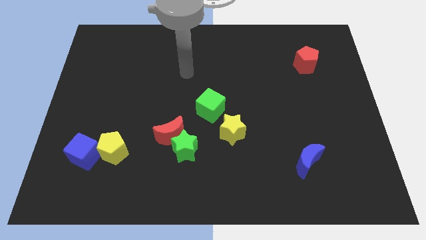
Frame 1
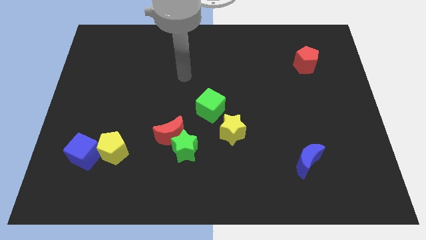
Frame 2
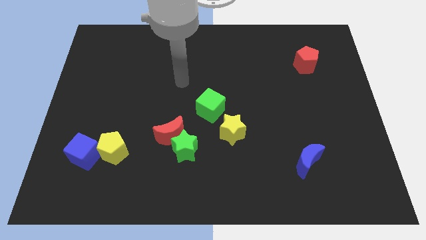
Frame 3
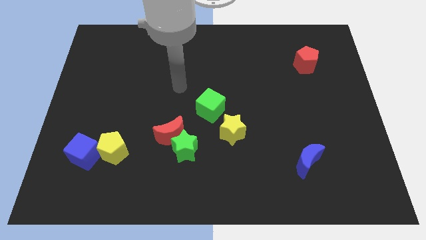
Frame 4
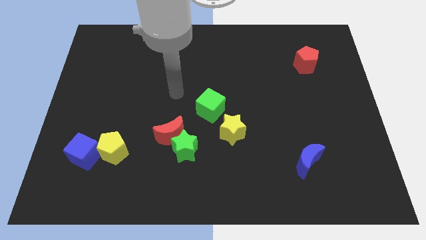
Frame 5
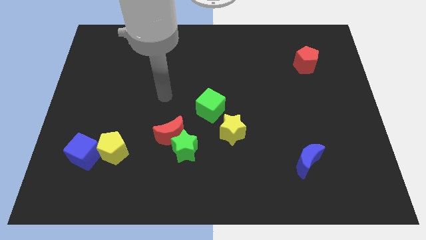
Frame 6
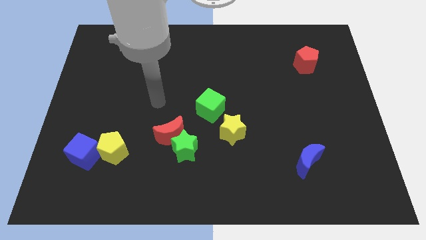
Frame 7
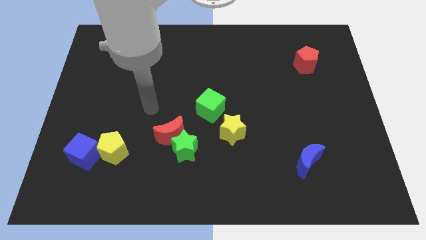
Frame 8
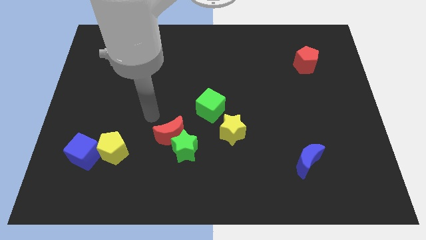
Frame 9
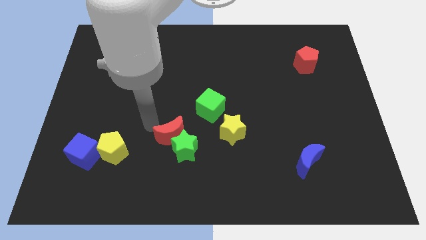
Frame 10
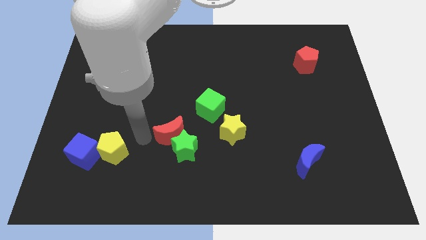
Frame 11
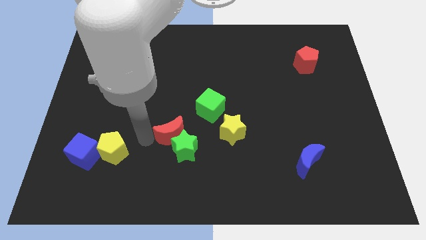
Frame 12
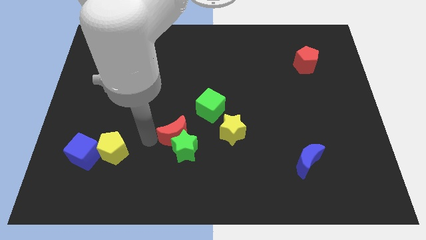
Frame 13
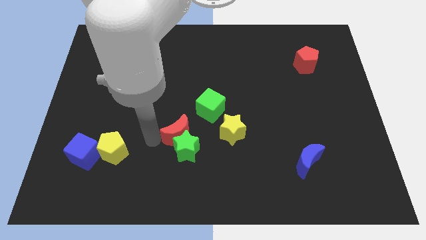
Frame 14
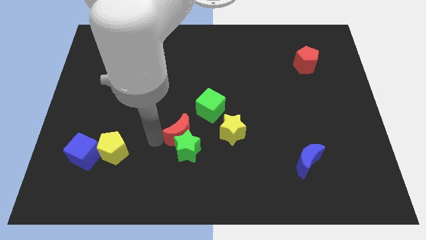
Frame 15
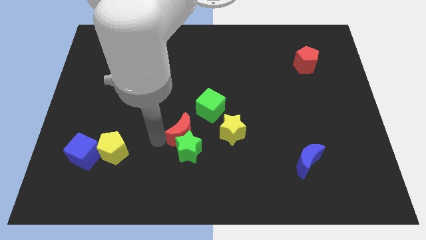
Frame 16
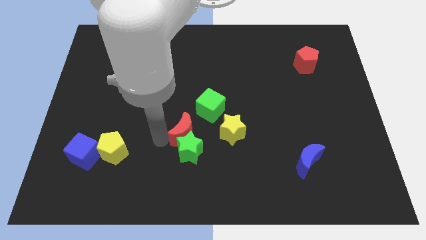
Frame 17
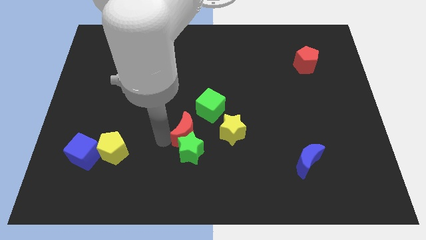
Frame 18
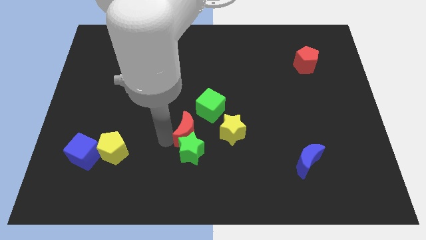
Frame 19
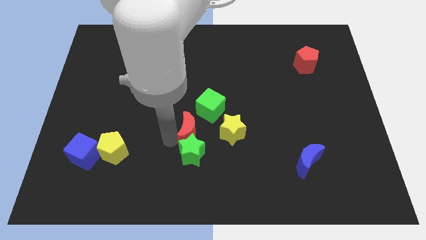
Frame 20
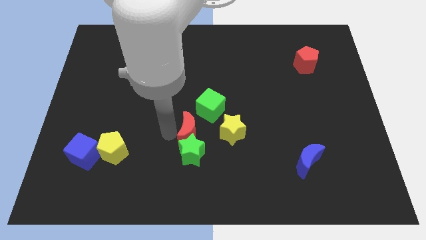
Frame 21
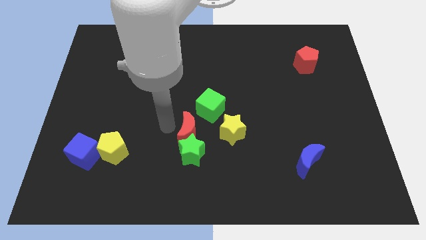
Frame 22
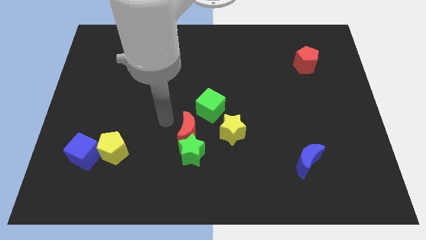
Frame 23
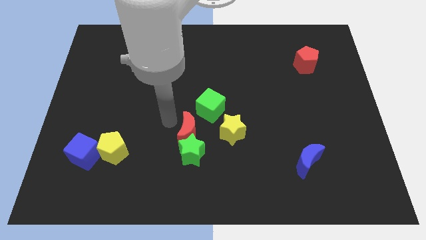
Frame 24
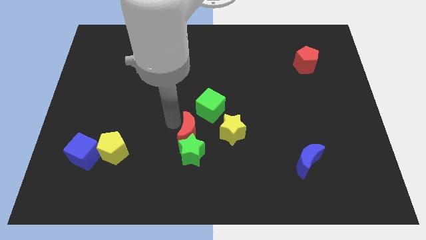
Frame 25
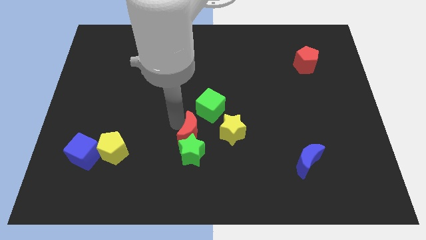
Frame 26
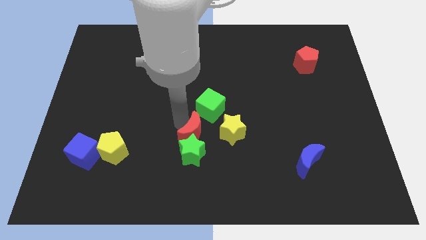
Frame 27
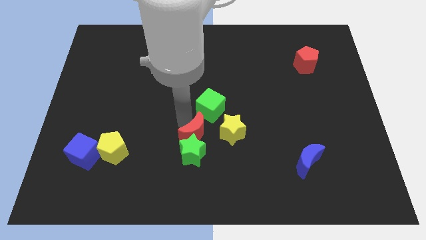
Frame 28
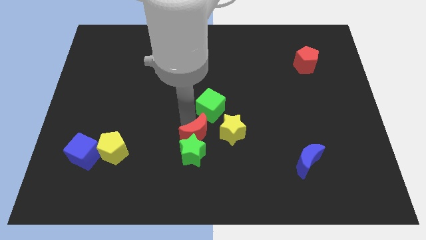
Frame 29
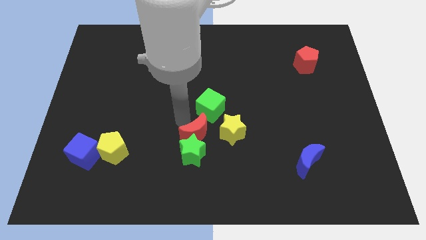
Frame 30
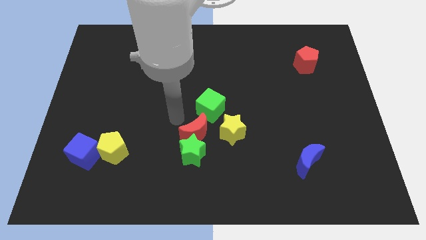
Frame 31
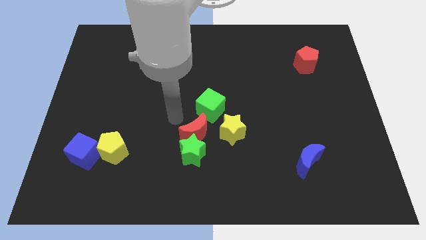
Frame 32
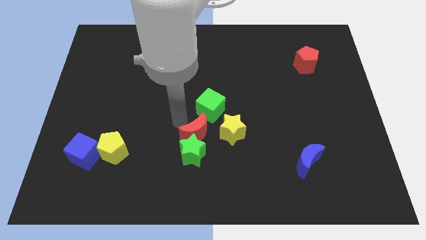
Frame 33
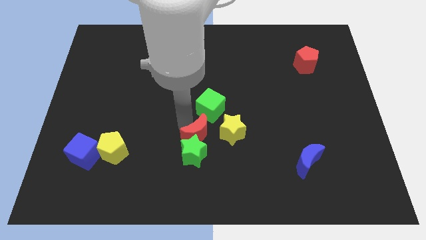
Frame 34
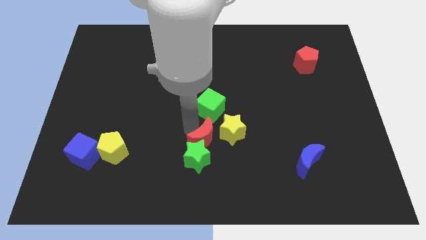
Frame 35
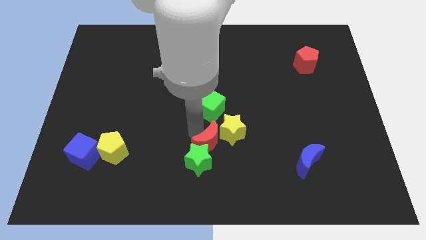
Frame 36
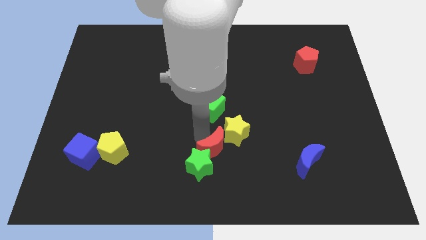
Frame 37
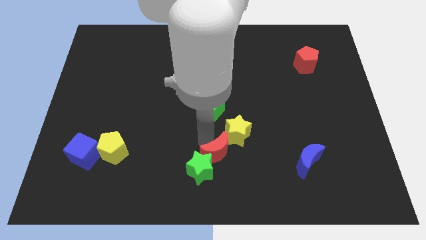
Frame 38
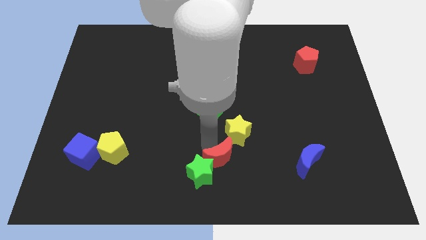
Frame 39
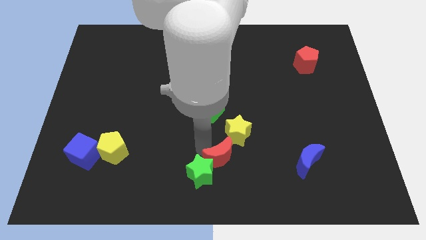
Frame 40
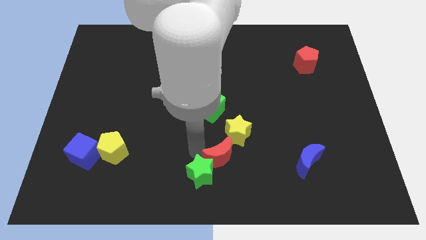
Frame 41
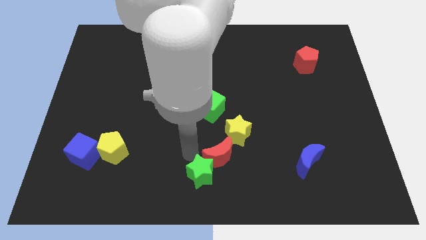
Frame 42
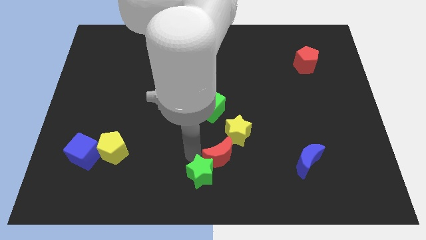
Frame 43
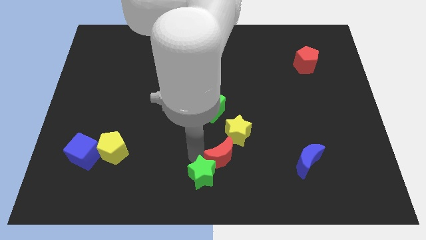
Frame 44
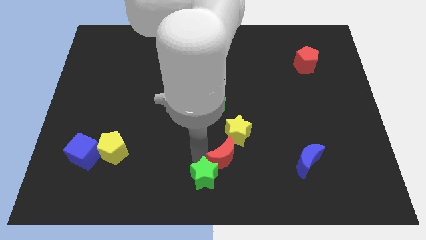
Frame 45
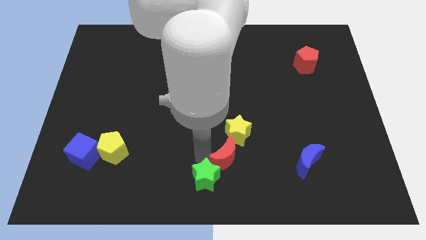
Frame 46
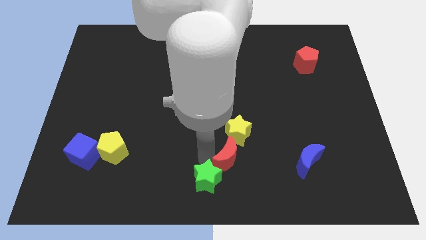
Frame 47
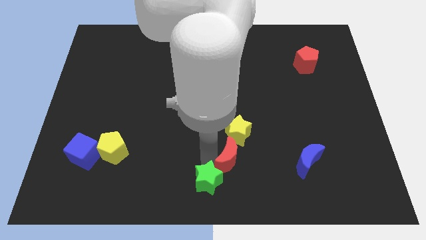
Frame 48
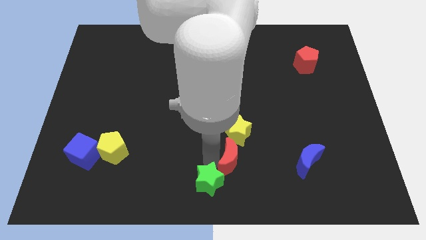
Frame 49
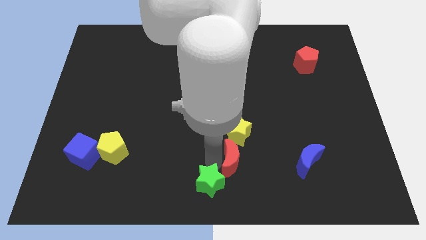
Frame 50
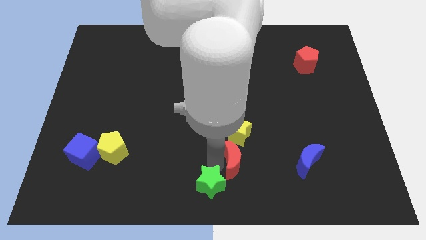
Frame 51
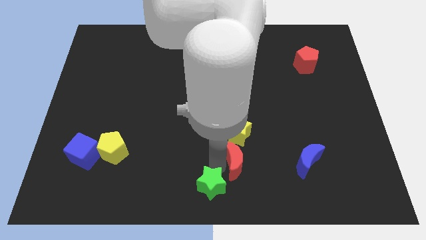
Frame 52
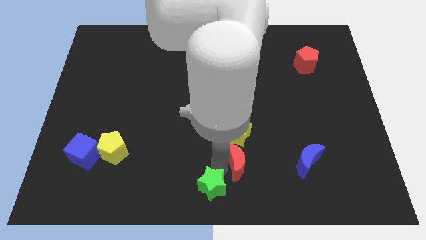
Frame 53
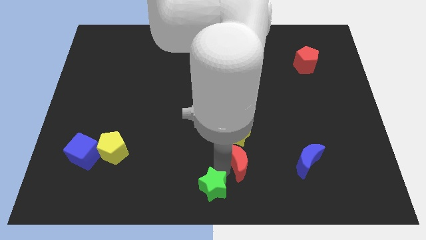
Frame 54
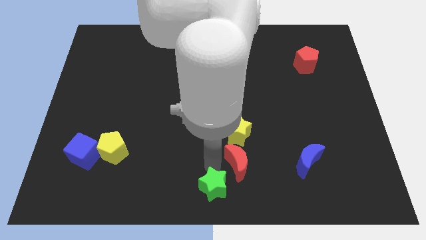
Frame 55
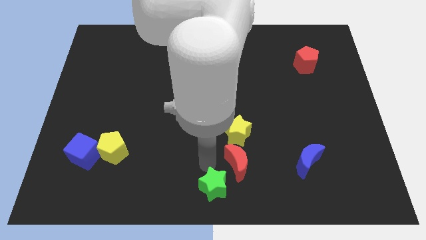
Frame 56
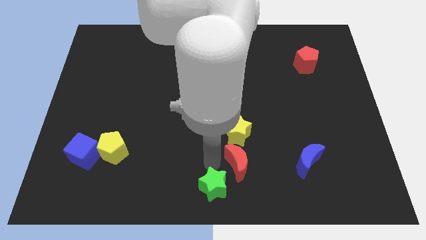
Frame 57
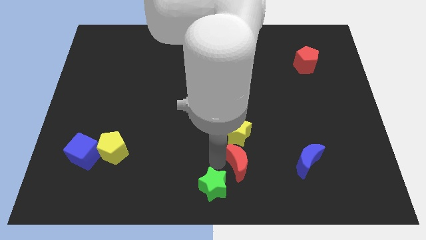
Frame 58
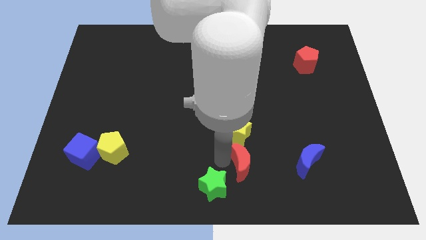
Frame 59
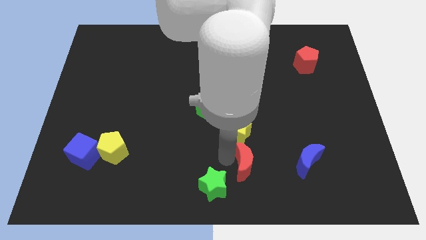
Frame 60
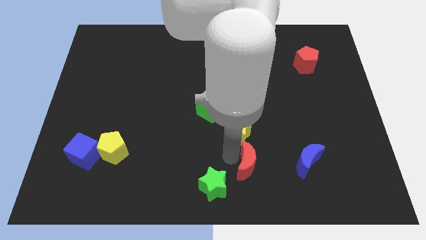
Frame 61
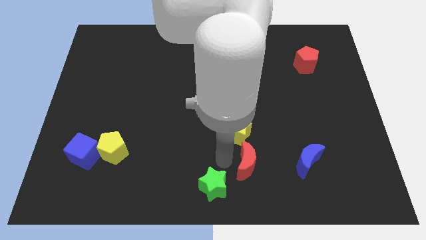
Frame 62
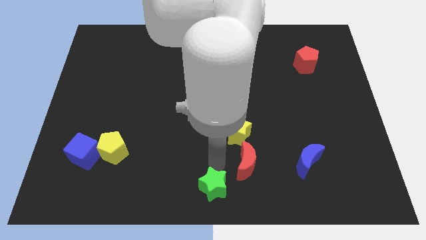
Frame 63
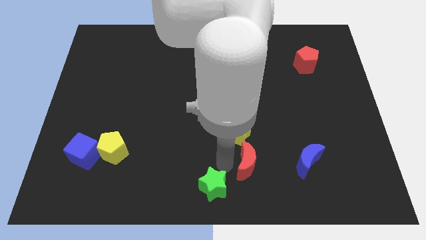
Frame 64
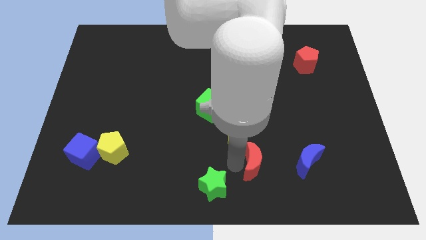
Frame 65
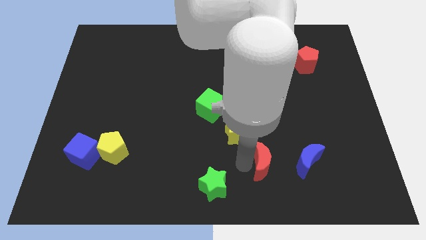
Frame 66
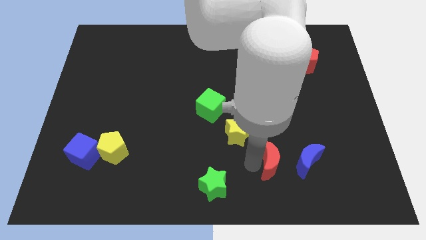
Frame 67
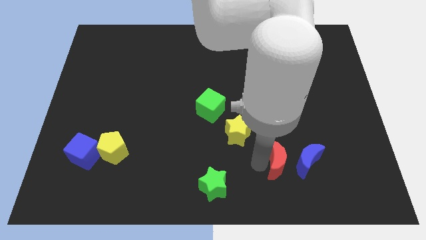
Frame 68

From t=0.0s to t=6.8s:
push the red moon next to the blue moon
